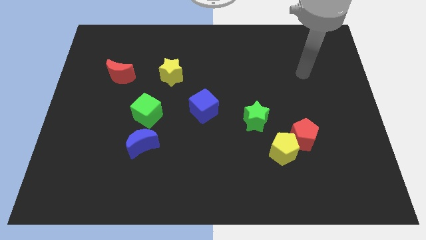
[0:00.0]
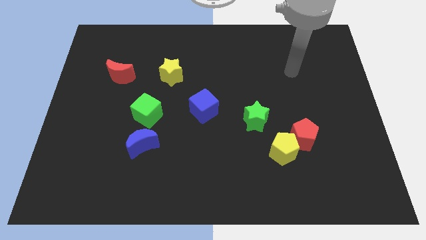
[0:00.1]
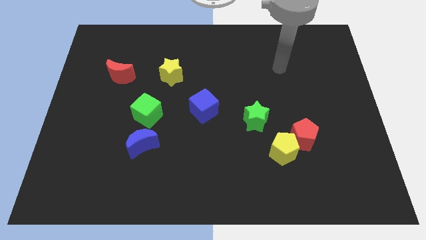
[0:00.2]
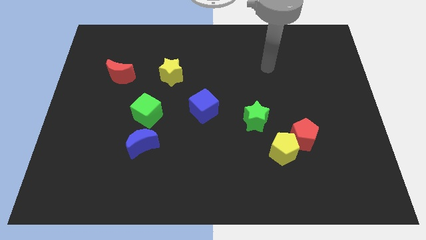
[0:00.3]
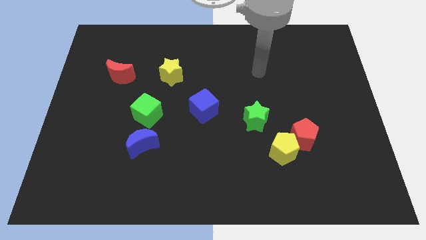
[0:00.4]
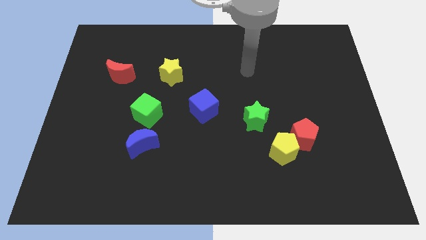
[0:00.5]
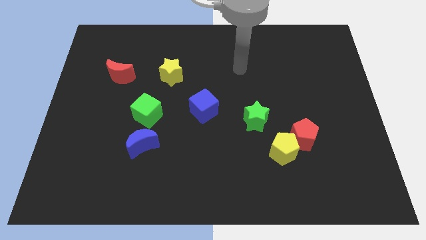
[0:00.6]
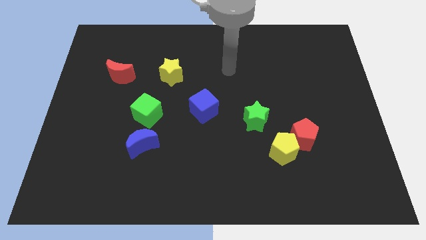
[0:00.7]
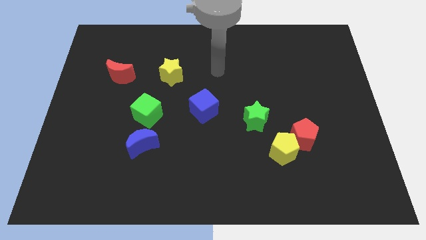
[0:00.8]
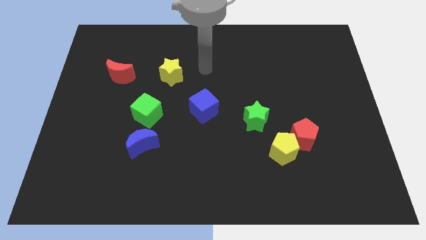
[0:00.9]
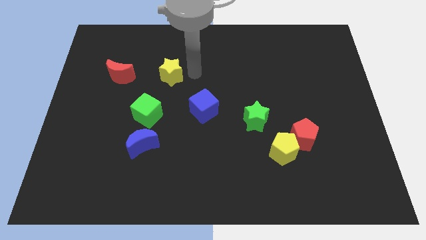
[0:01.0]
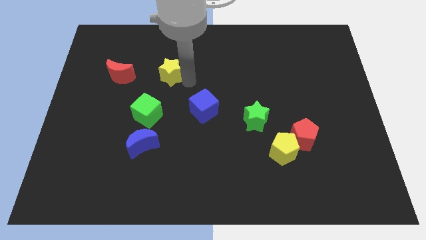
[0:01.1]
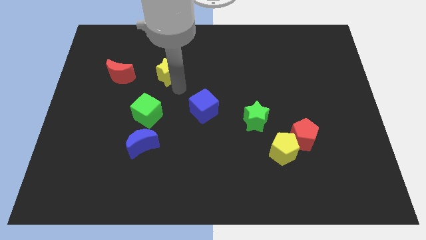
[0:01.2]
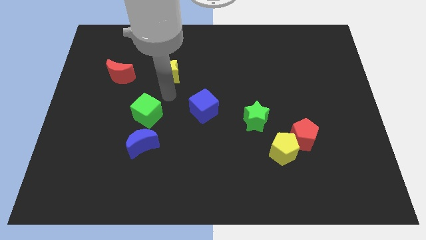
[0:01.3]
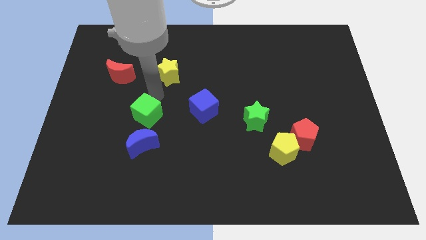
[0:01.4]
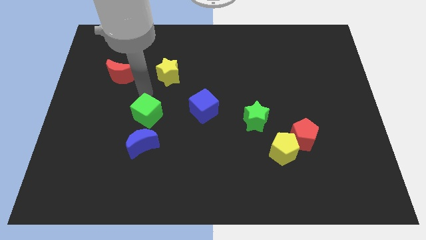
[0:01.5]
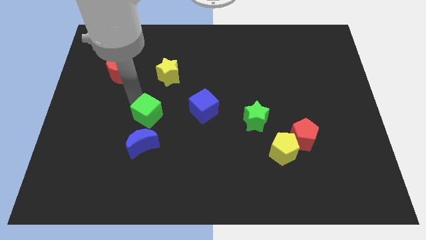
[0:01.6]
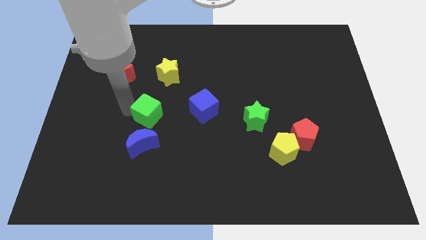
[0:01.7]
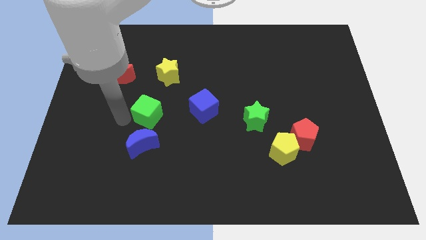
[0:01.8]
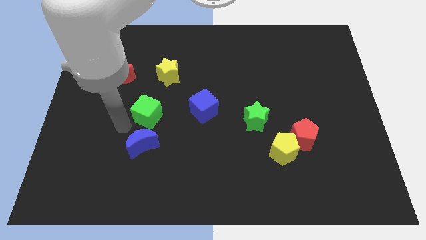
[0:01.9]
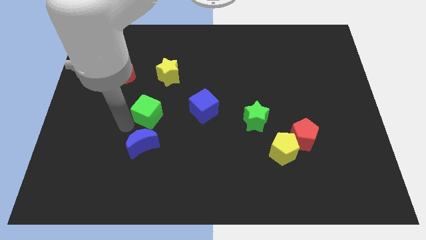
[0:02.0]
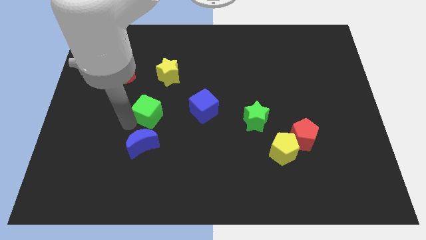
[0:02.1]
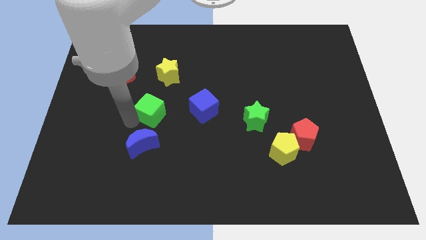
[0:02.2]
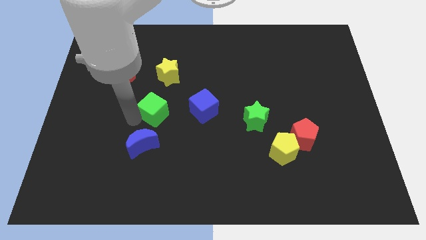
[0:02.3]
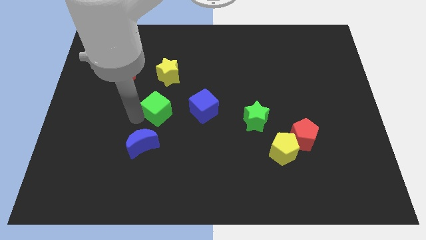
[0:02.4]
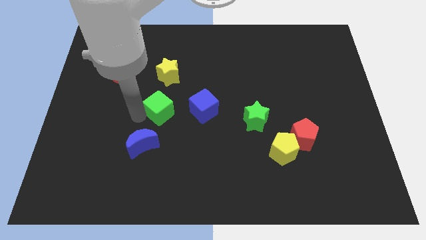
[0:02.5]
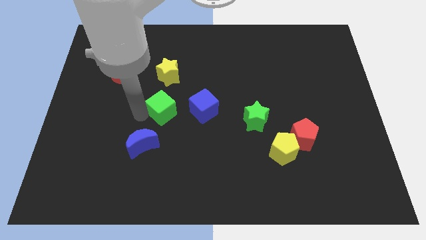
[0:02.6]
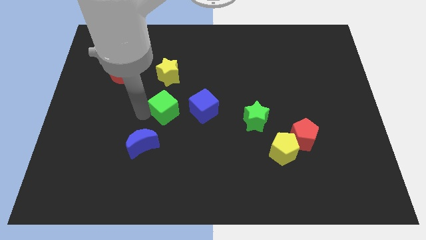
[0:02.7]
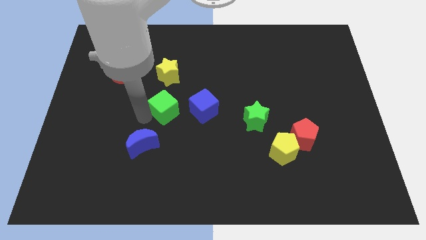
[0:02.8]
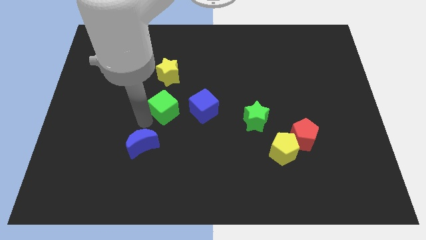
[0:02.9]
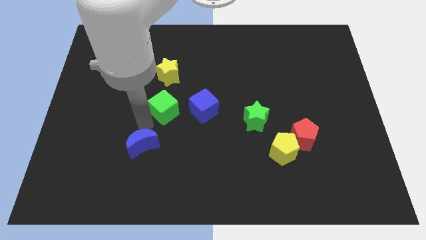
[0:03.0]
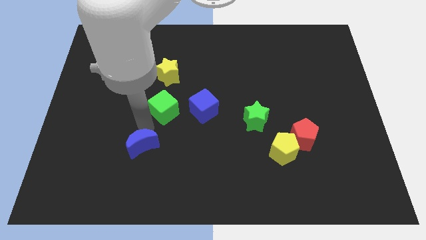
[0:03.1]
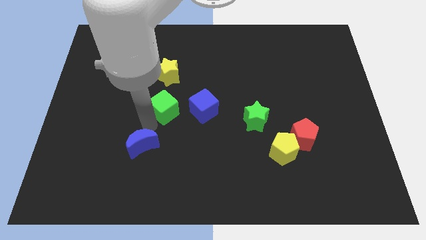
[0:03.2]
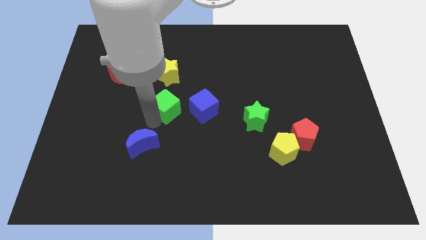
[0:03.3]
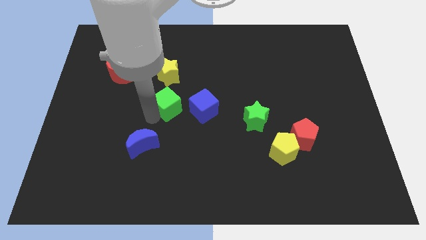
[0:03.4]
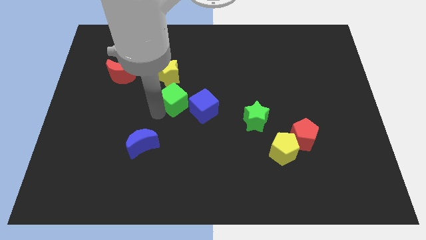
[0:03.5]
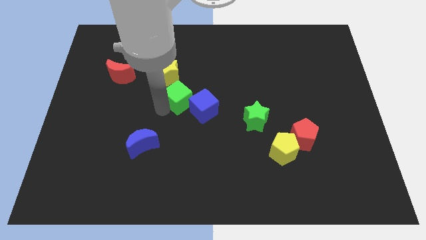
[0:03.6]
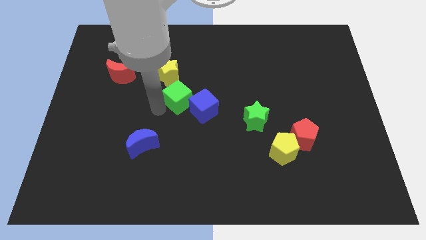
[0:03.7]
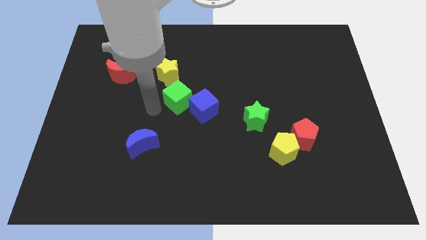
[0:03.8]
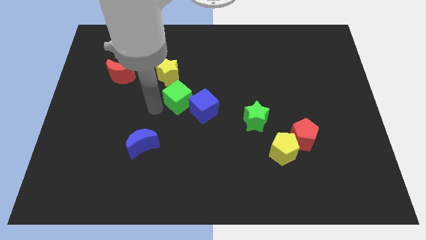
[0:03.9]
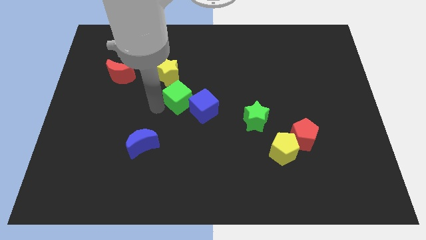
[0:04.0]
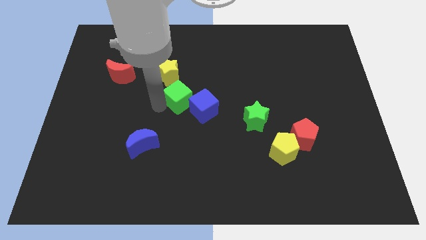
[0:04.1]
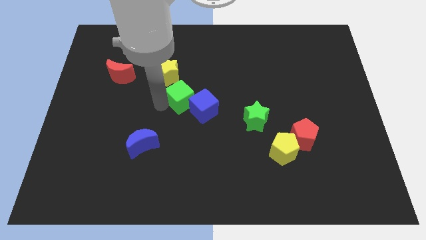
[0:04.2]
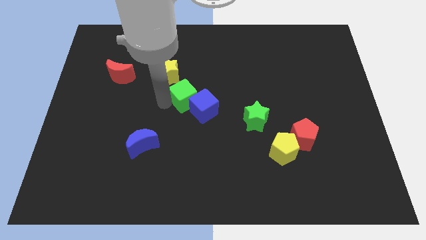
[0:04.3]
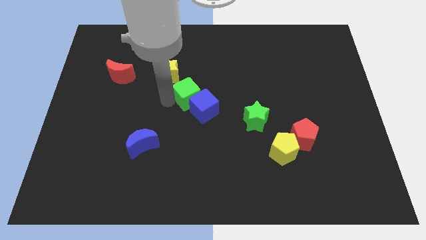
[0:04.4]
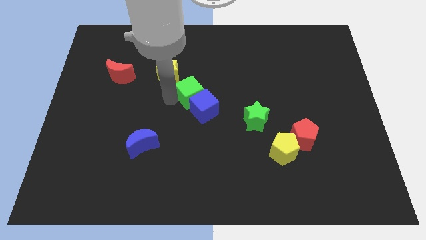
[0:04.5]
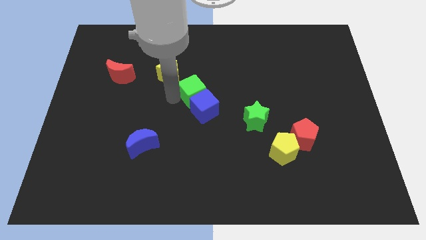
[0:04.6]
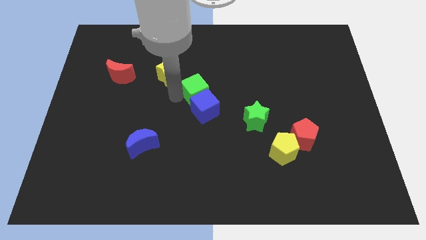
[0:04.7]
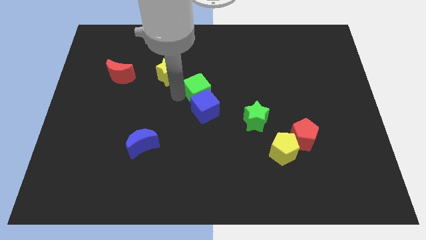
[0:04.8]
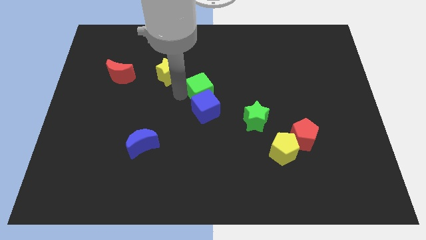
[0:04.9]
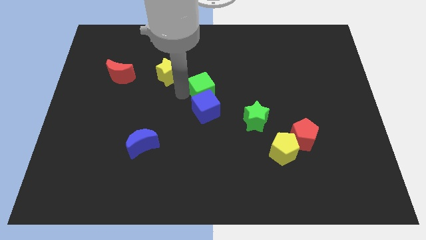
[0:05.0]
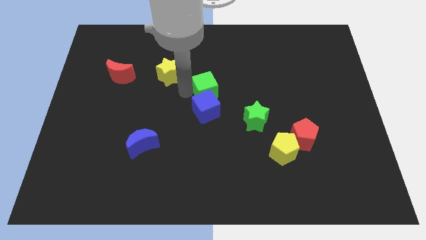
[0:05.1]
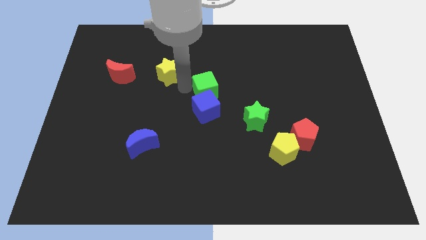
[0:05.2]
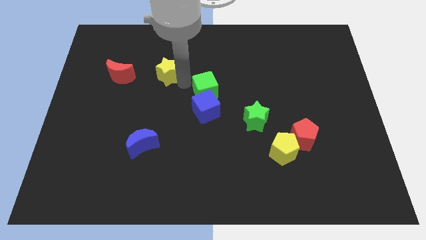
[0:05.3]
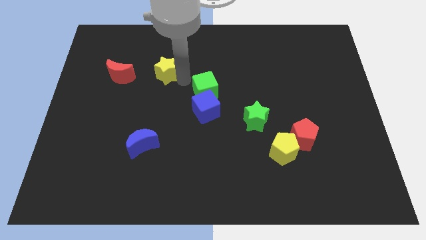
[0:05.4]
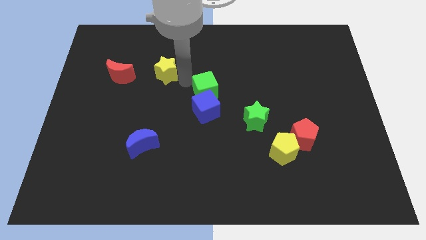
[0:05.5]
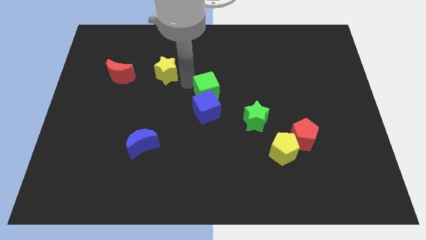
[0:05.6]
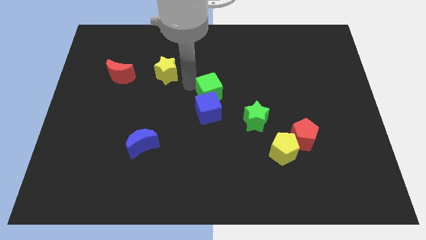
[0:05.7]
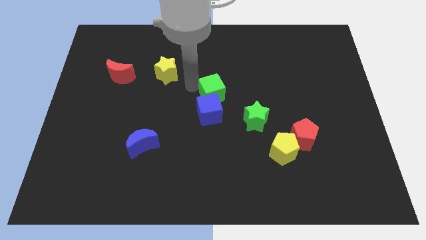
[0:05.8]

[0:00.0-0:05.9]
put the green cube to the top left of the green star
